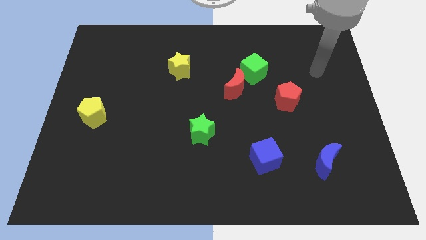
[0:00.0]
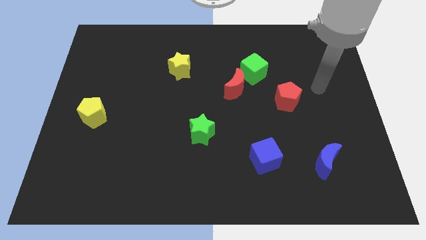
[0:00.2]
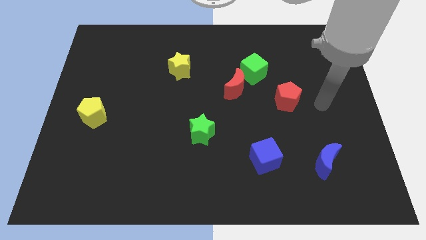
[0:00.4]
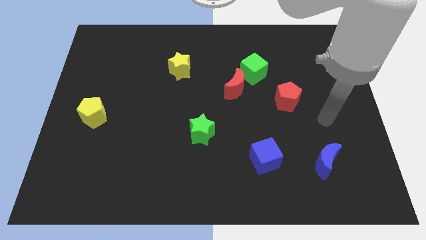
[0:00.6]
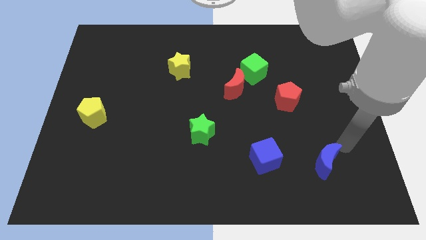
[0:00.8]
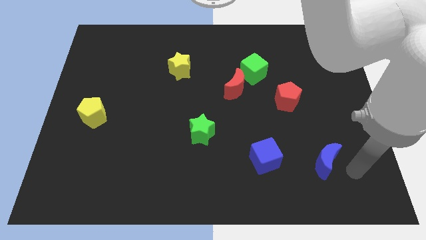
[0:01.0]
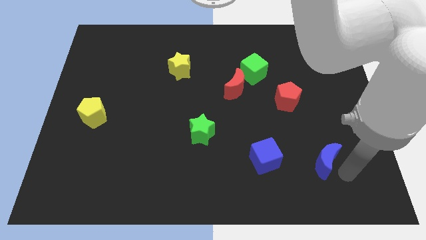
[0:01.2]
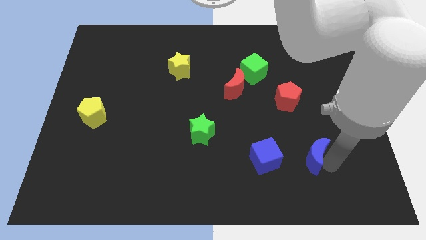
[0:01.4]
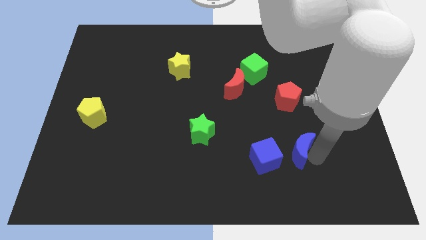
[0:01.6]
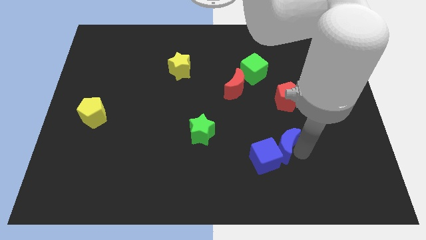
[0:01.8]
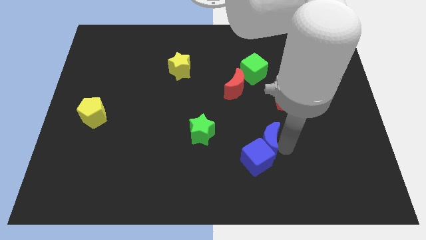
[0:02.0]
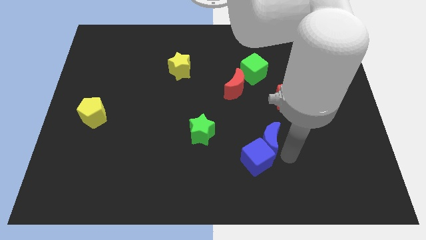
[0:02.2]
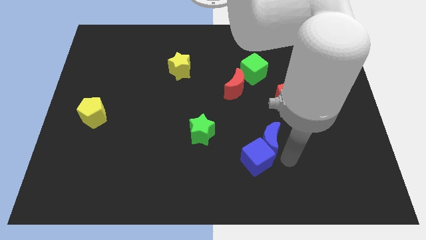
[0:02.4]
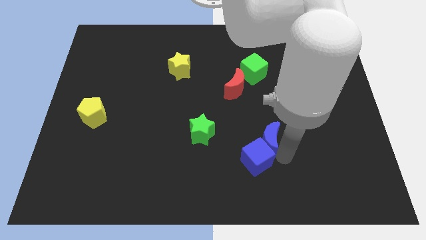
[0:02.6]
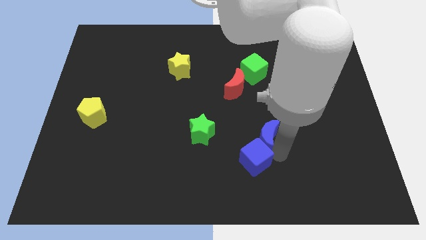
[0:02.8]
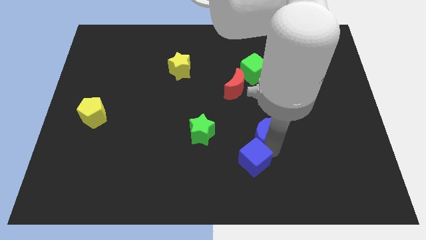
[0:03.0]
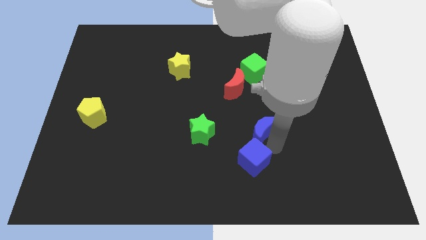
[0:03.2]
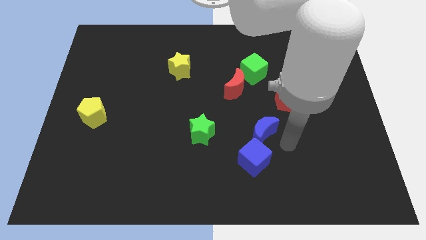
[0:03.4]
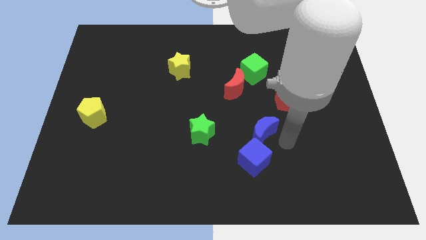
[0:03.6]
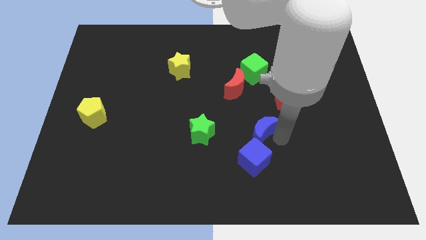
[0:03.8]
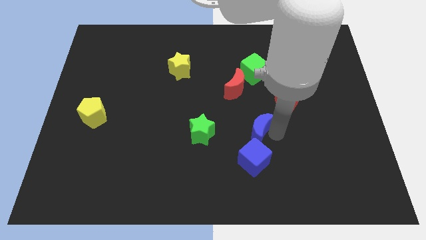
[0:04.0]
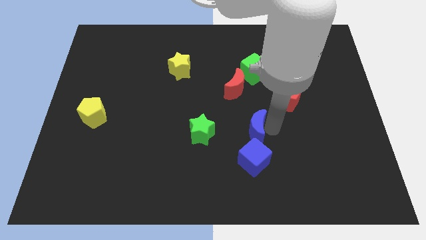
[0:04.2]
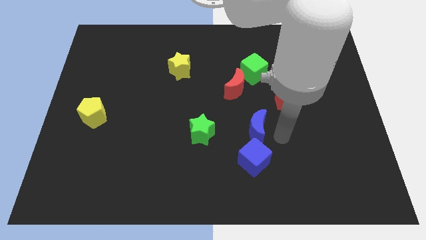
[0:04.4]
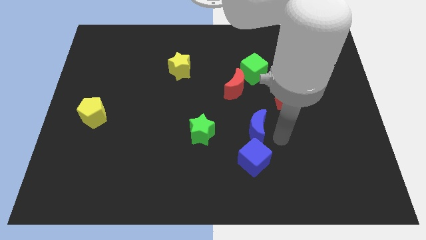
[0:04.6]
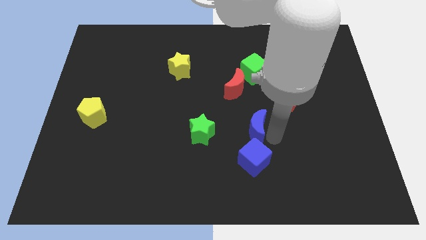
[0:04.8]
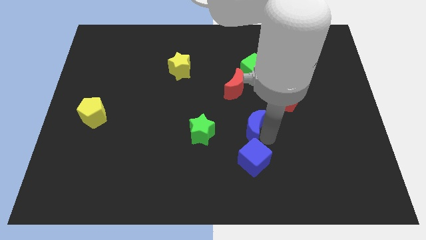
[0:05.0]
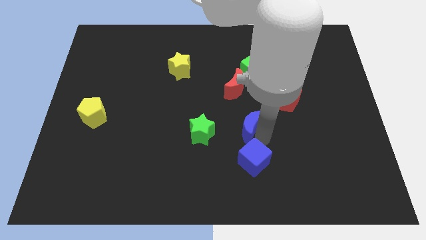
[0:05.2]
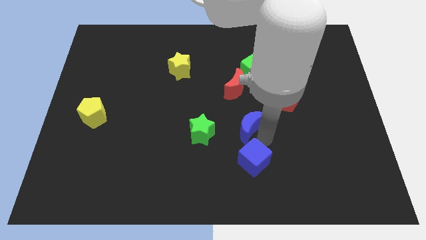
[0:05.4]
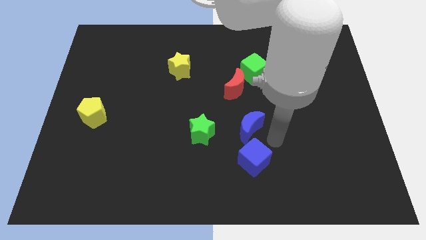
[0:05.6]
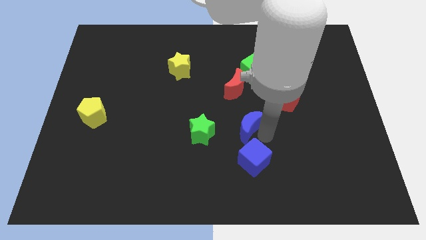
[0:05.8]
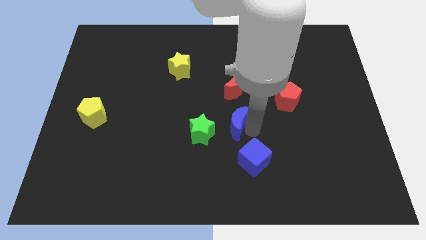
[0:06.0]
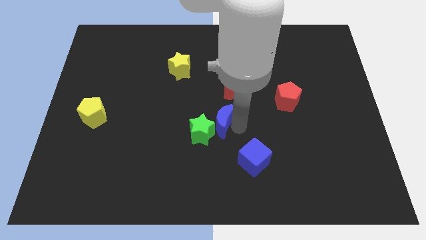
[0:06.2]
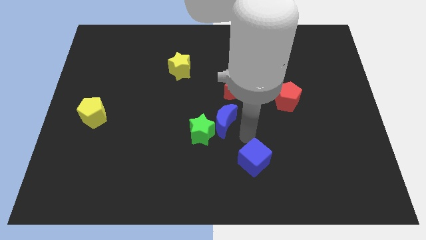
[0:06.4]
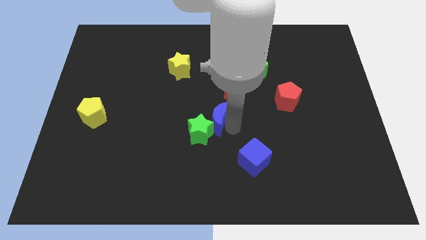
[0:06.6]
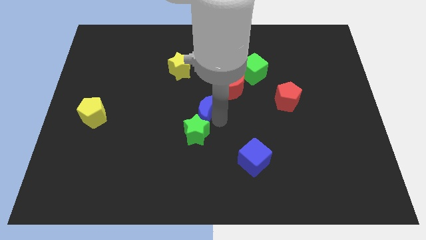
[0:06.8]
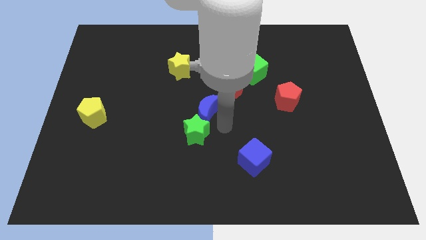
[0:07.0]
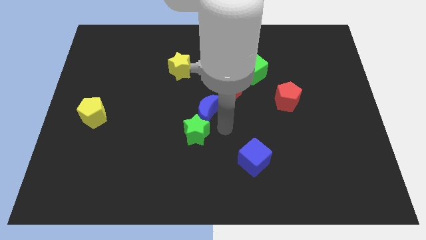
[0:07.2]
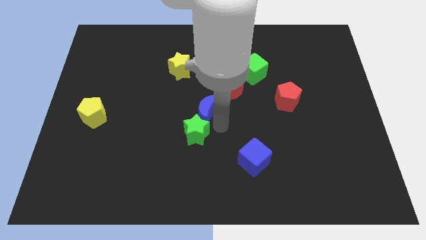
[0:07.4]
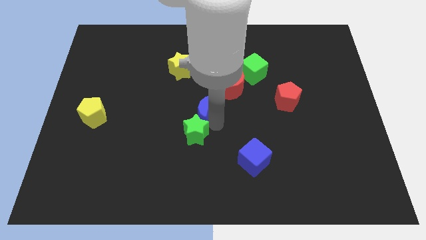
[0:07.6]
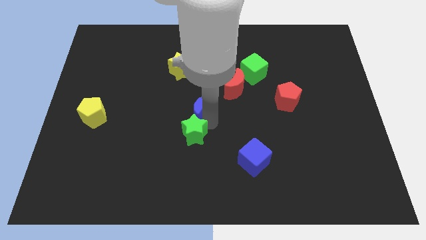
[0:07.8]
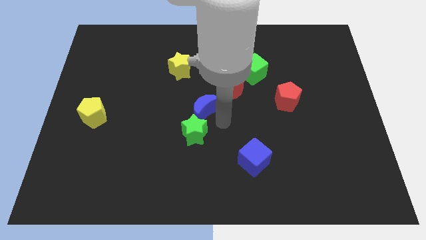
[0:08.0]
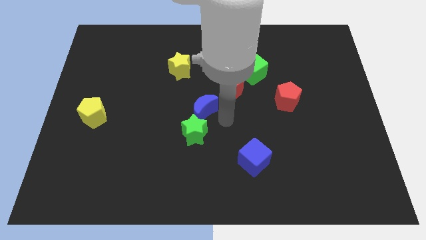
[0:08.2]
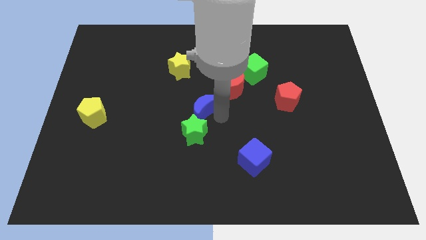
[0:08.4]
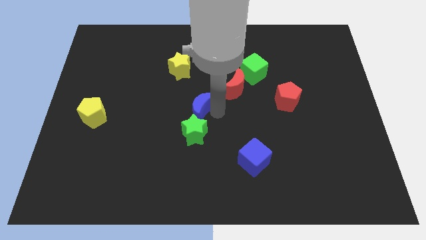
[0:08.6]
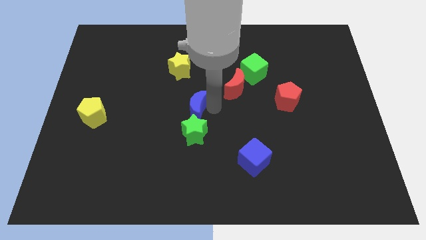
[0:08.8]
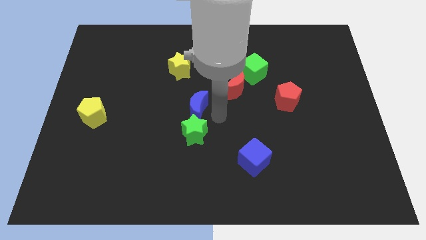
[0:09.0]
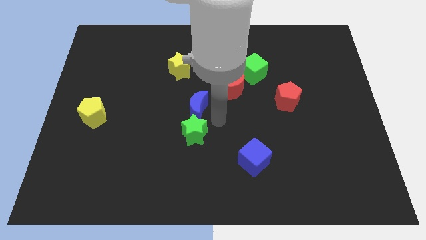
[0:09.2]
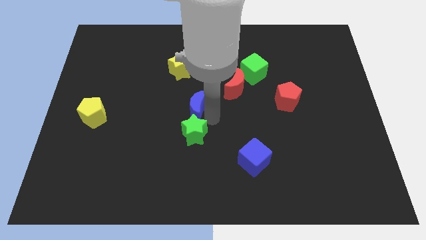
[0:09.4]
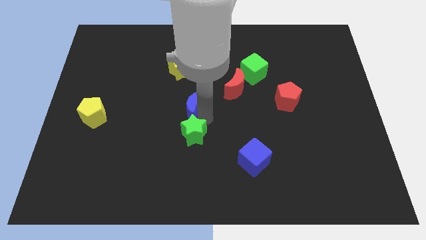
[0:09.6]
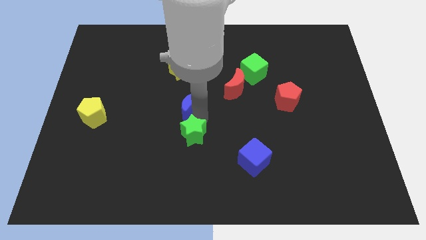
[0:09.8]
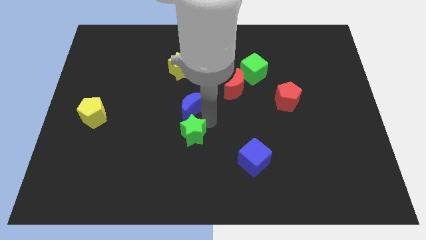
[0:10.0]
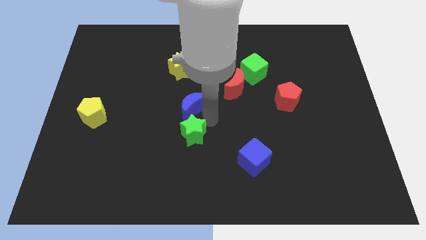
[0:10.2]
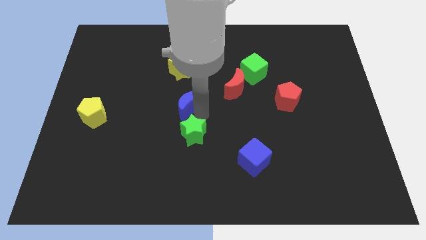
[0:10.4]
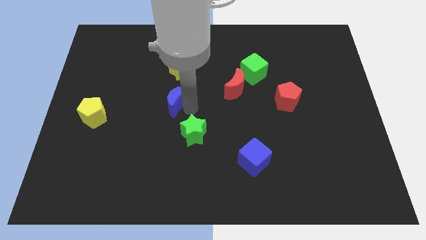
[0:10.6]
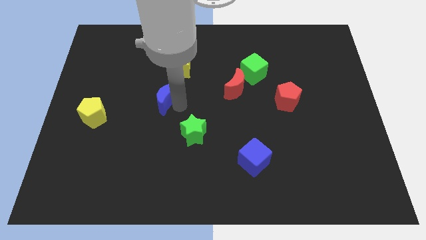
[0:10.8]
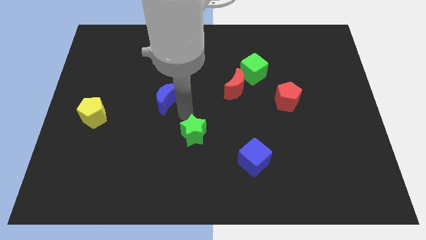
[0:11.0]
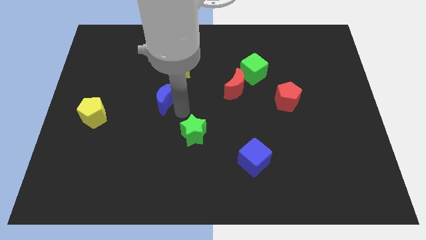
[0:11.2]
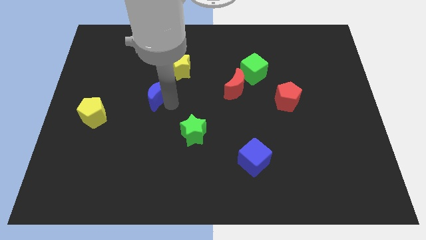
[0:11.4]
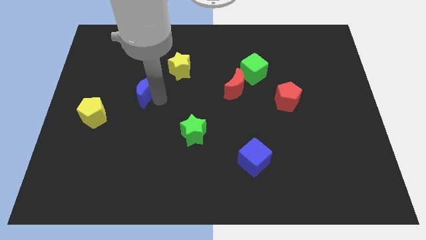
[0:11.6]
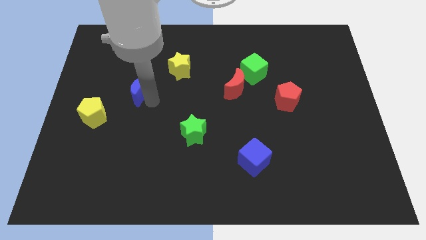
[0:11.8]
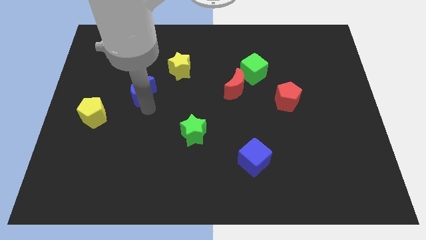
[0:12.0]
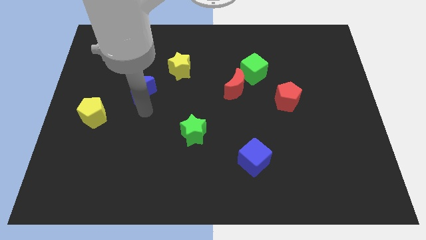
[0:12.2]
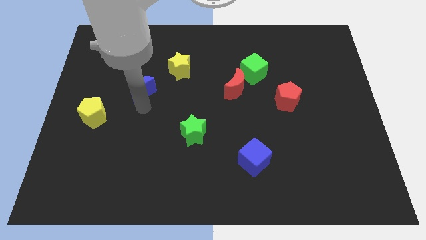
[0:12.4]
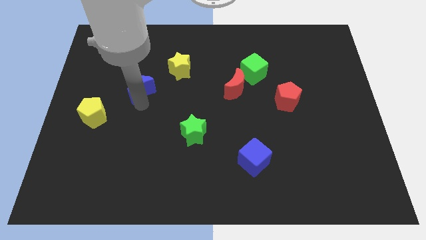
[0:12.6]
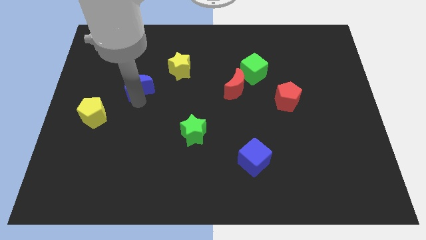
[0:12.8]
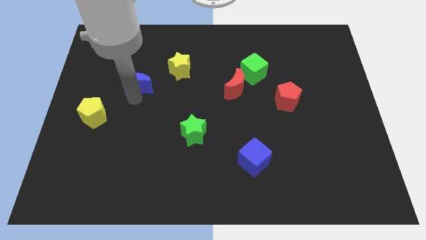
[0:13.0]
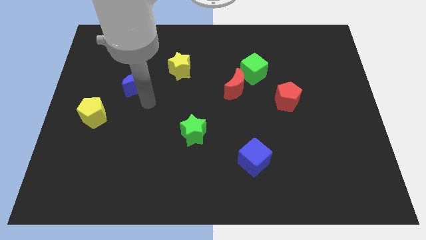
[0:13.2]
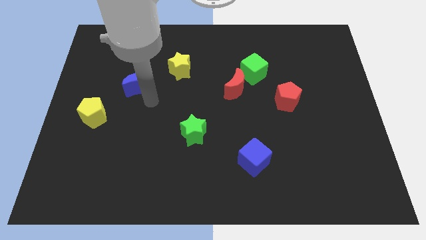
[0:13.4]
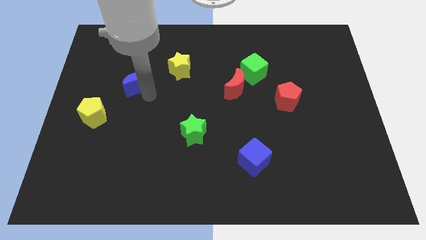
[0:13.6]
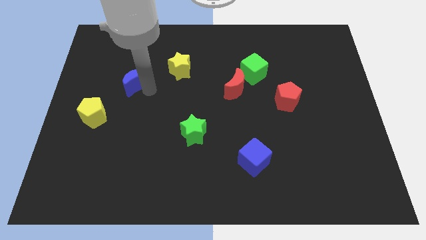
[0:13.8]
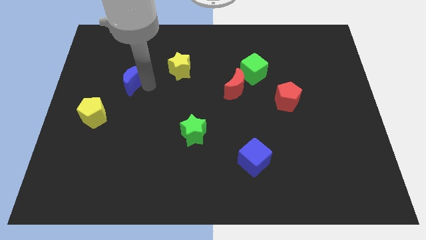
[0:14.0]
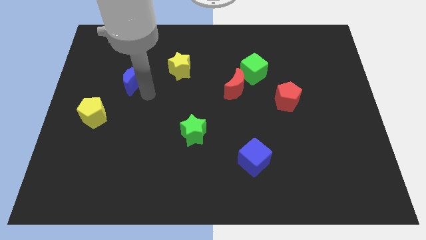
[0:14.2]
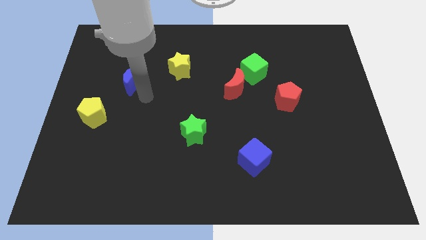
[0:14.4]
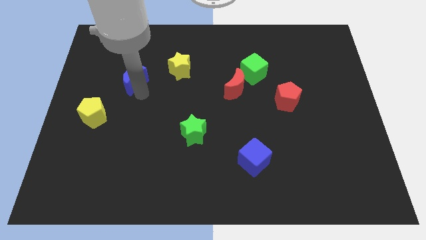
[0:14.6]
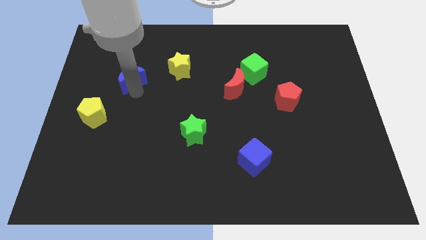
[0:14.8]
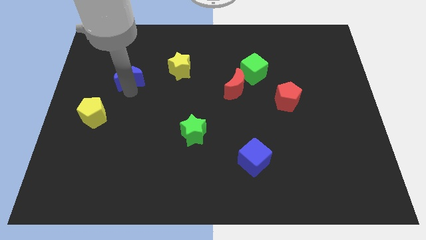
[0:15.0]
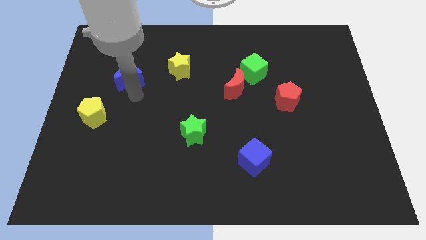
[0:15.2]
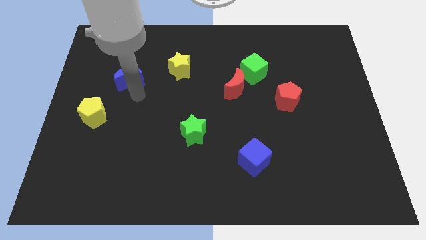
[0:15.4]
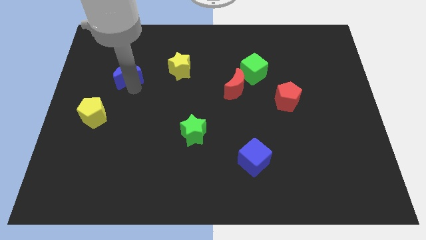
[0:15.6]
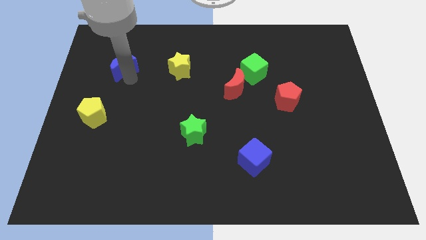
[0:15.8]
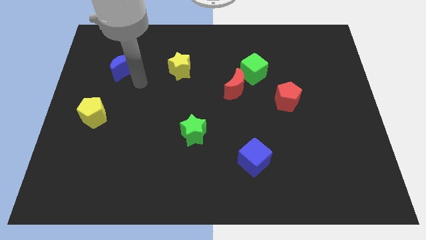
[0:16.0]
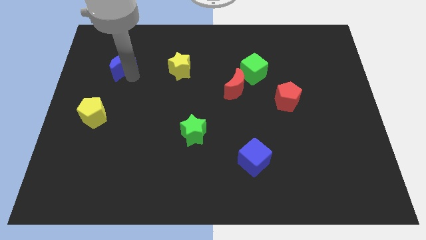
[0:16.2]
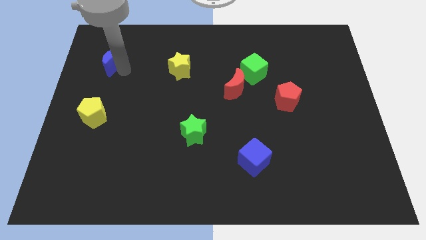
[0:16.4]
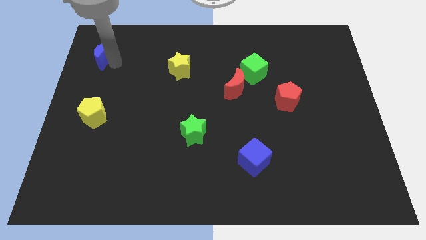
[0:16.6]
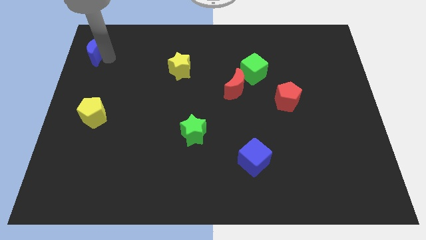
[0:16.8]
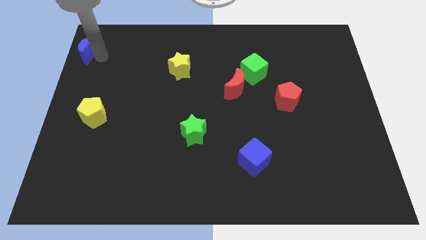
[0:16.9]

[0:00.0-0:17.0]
push the blue moon to the top left
